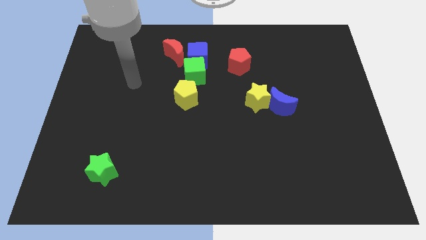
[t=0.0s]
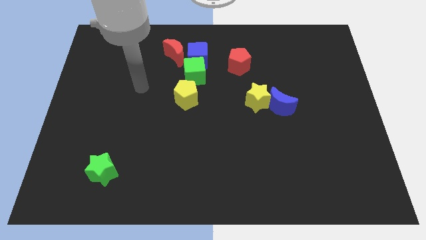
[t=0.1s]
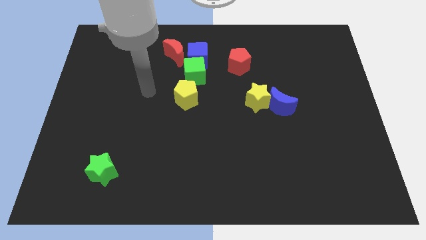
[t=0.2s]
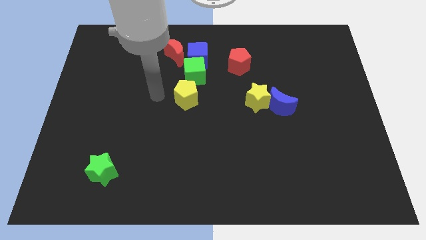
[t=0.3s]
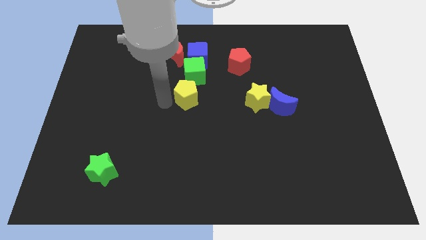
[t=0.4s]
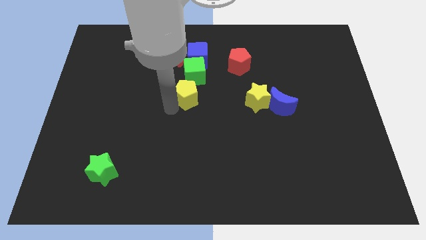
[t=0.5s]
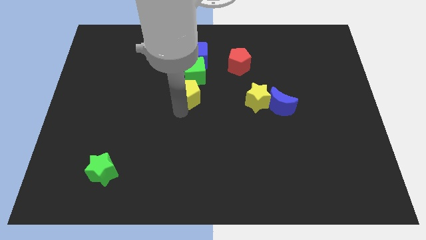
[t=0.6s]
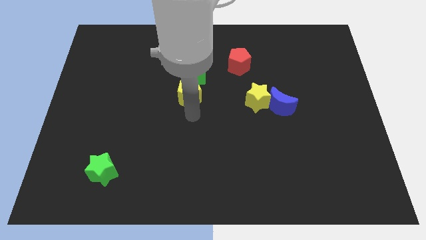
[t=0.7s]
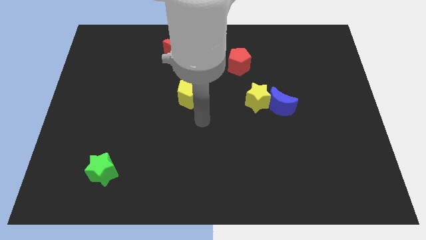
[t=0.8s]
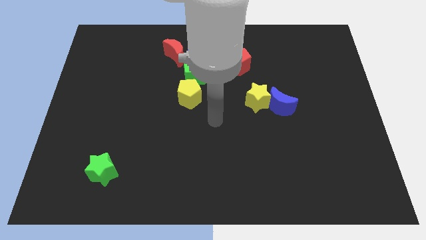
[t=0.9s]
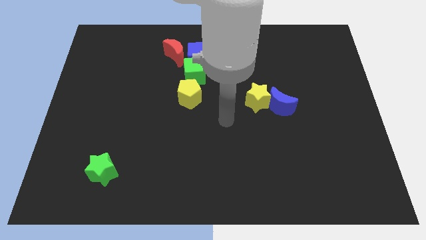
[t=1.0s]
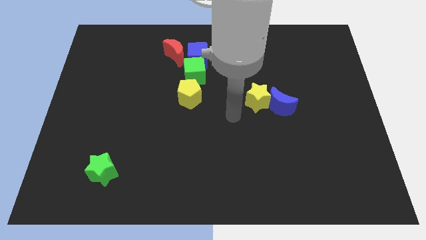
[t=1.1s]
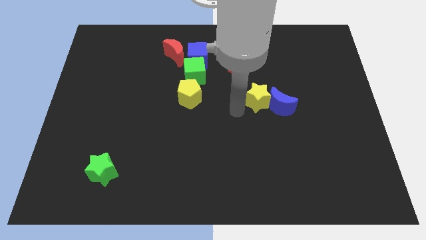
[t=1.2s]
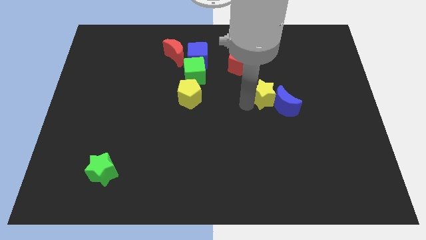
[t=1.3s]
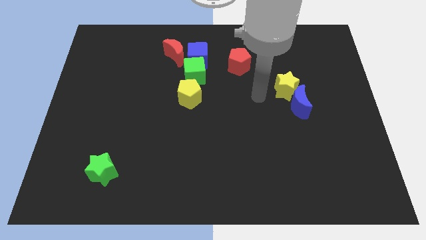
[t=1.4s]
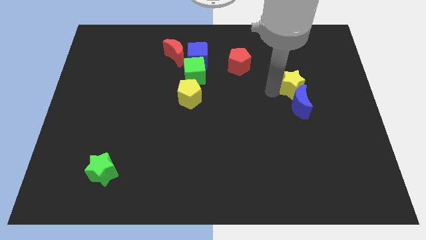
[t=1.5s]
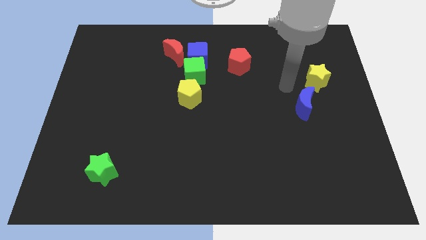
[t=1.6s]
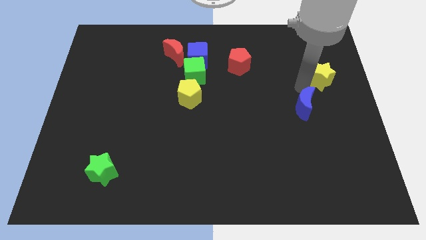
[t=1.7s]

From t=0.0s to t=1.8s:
move the blue moon away from the yellow star

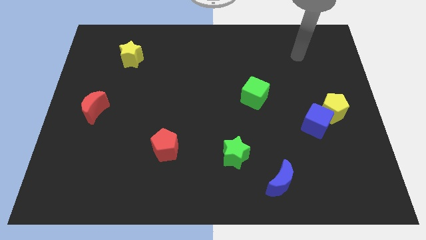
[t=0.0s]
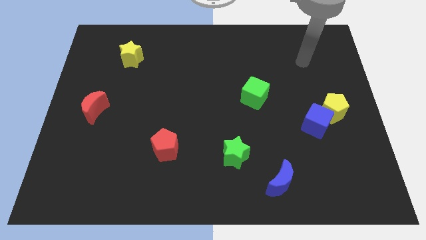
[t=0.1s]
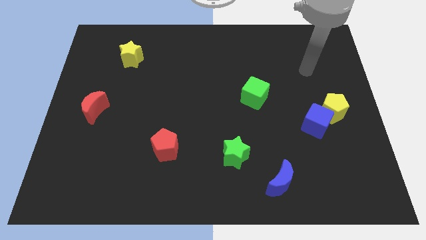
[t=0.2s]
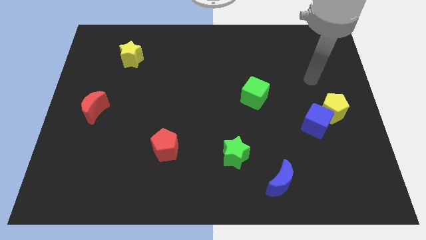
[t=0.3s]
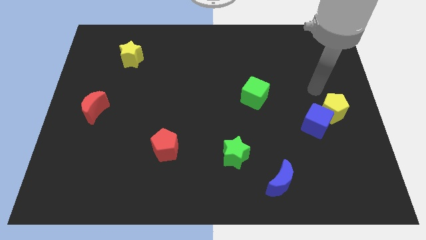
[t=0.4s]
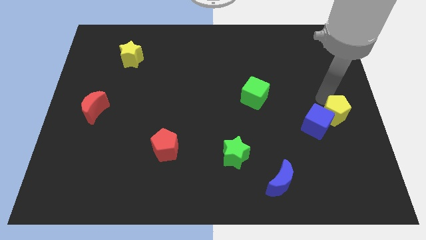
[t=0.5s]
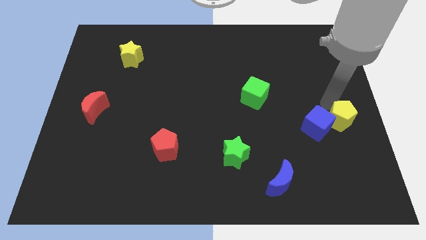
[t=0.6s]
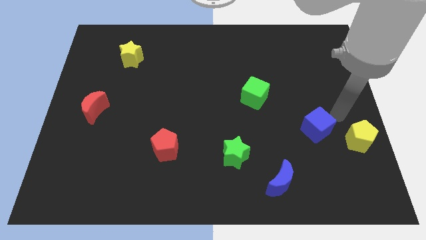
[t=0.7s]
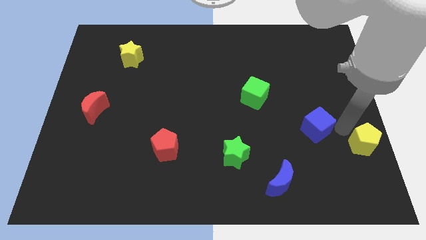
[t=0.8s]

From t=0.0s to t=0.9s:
separate the blue cube from the yellow pentagon

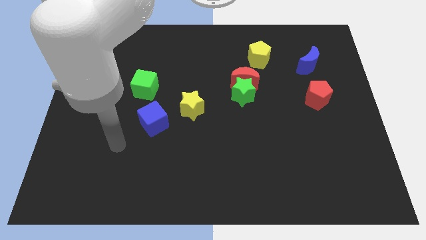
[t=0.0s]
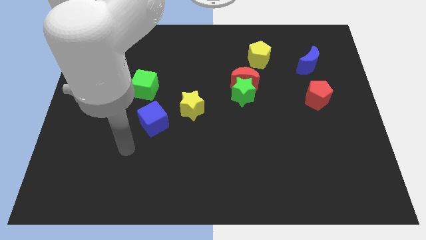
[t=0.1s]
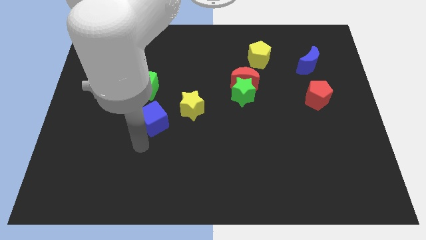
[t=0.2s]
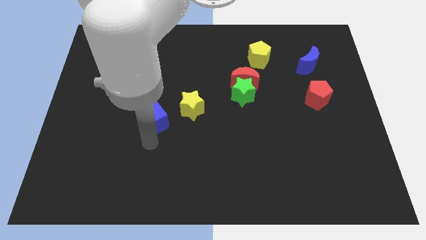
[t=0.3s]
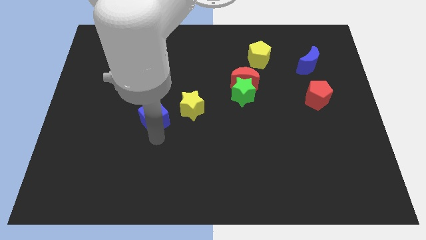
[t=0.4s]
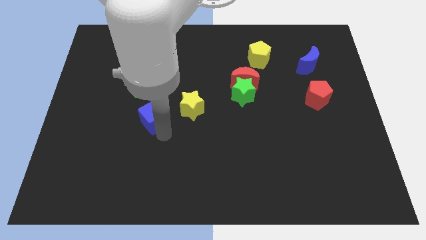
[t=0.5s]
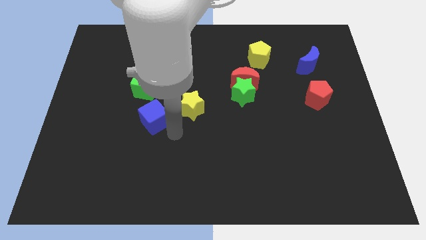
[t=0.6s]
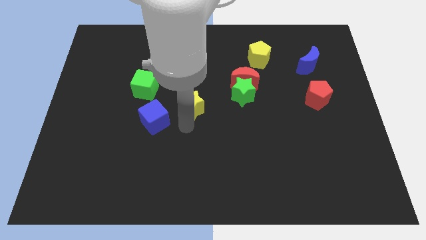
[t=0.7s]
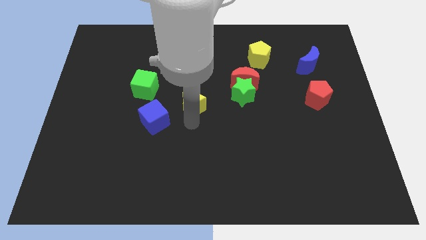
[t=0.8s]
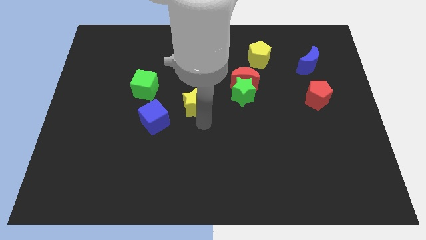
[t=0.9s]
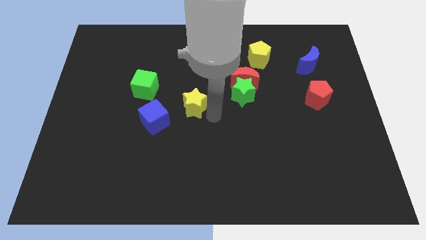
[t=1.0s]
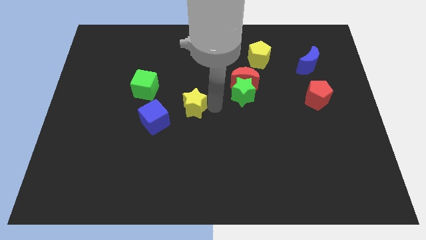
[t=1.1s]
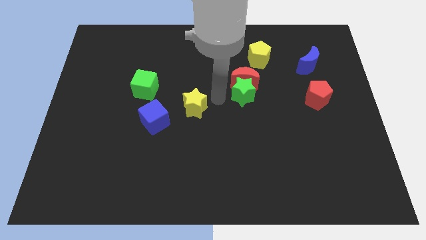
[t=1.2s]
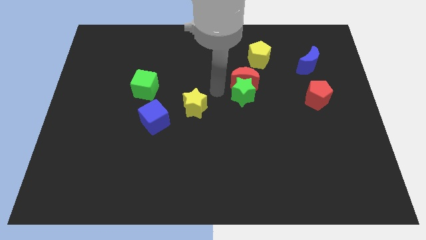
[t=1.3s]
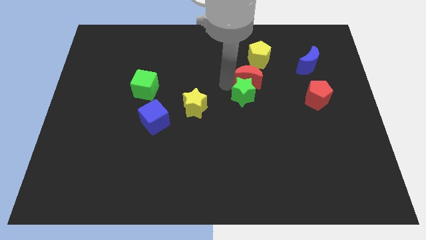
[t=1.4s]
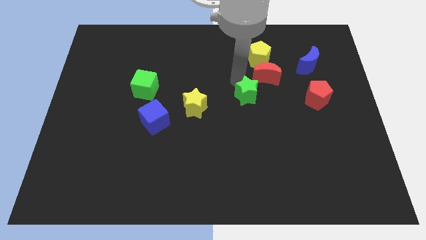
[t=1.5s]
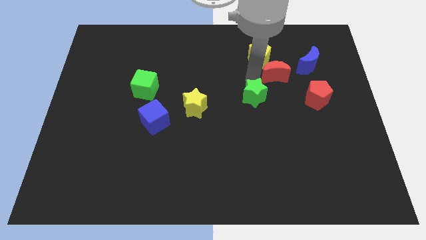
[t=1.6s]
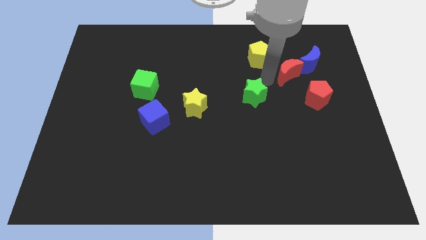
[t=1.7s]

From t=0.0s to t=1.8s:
pull the green star apart from the red moon

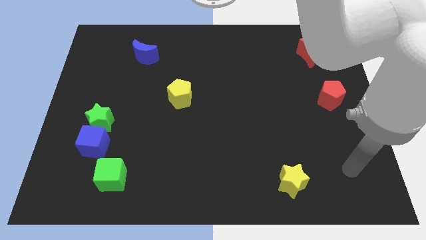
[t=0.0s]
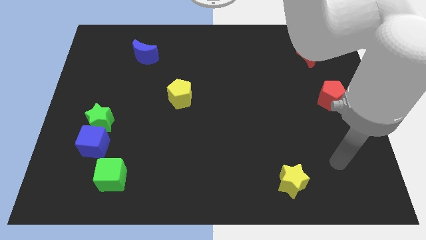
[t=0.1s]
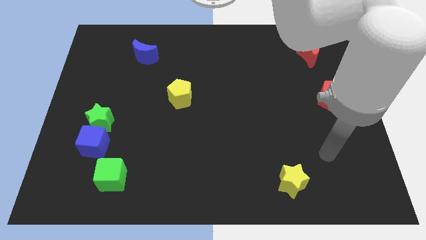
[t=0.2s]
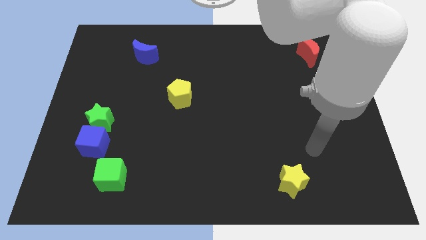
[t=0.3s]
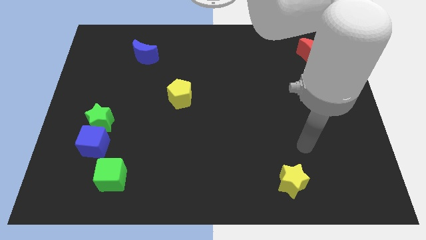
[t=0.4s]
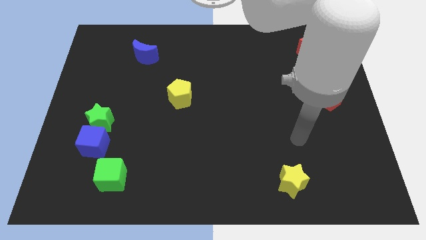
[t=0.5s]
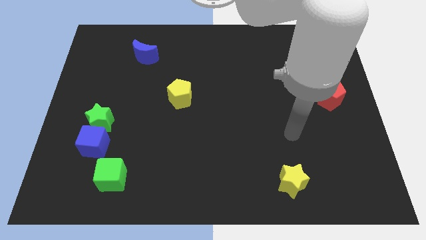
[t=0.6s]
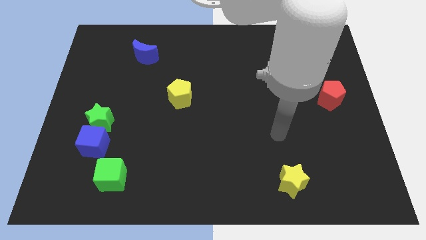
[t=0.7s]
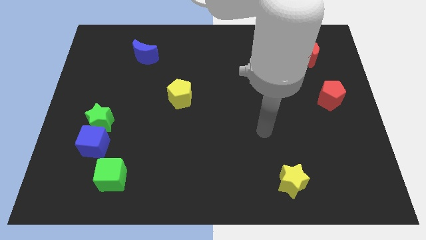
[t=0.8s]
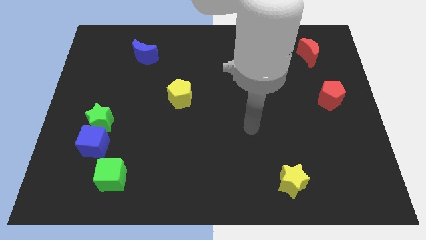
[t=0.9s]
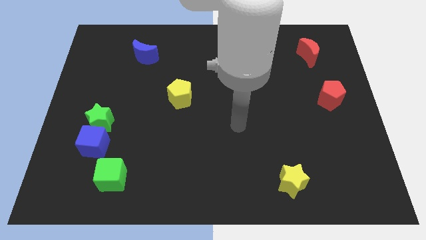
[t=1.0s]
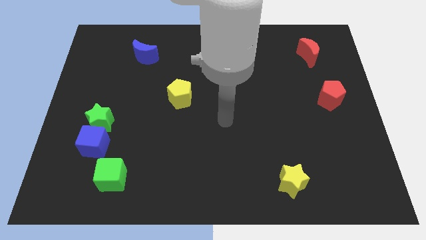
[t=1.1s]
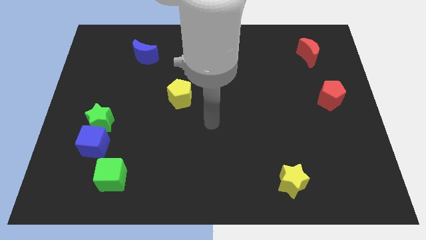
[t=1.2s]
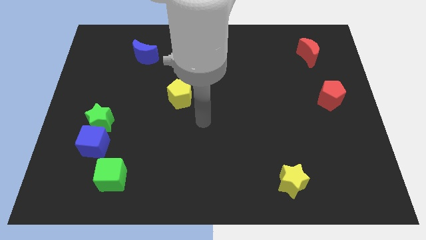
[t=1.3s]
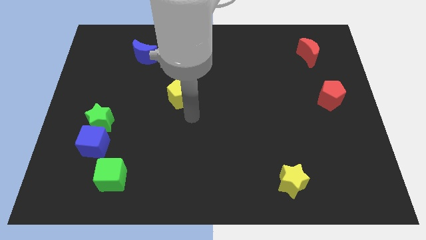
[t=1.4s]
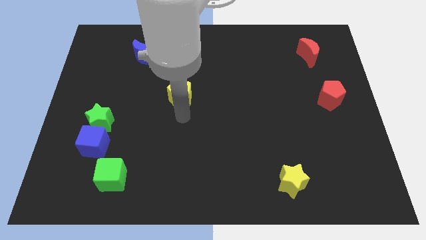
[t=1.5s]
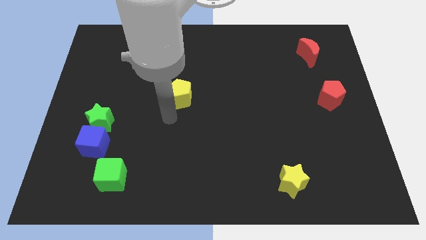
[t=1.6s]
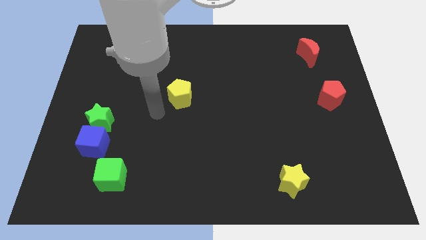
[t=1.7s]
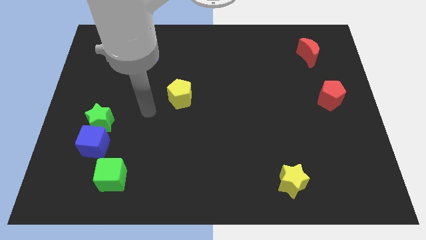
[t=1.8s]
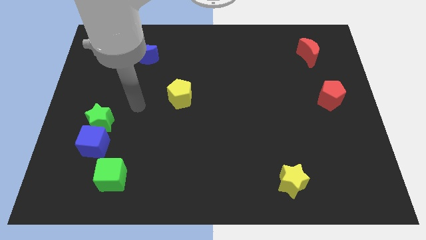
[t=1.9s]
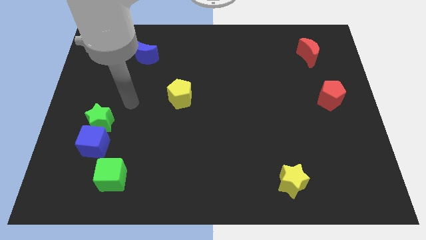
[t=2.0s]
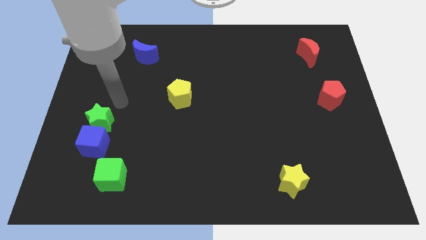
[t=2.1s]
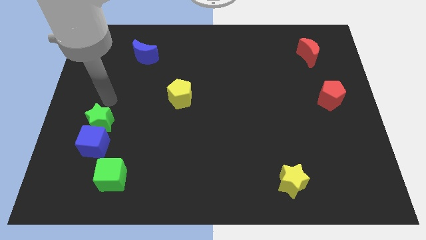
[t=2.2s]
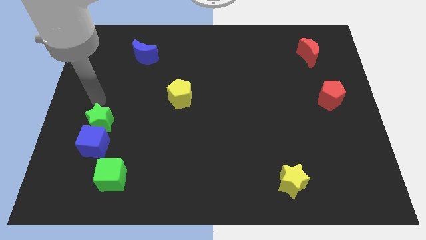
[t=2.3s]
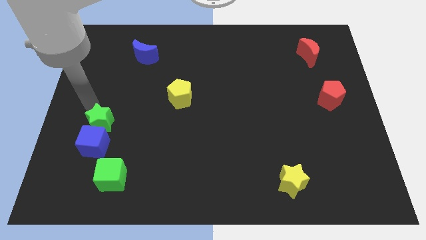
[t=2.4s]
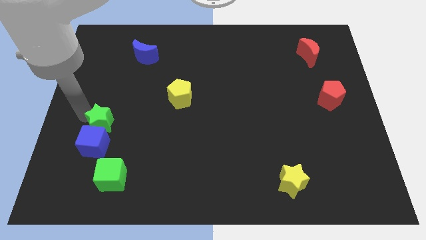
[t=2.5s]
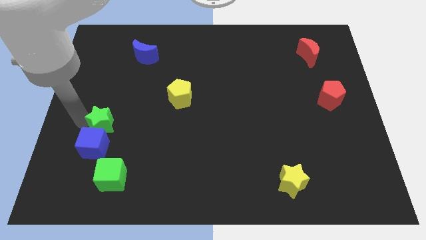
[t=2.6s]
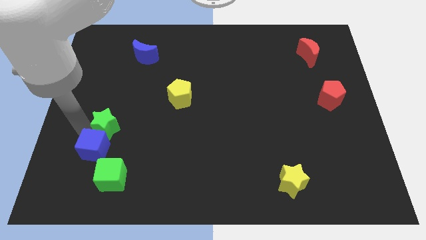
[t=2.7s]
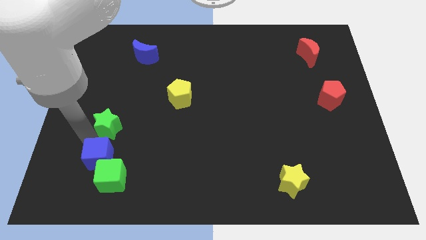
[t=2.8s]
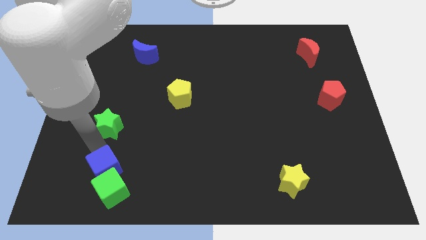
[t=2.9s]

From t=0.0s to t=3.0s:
move the green star away from the blue cube

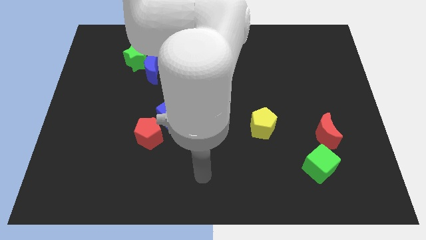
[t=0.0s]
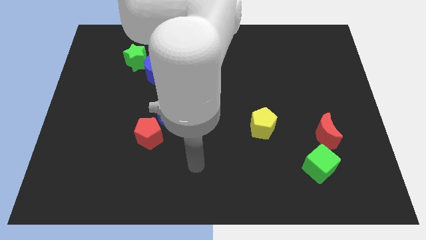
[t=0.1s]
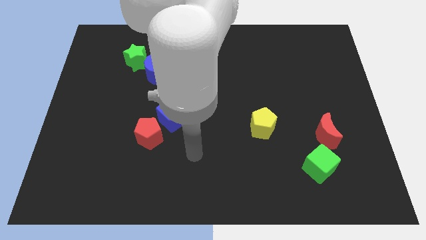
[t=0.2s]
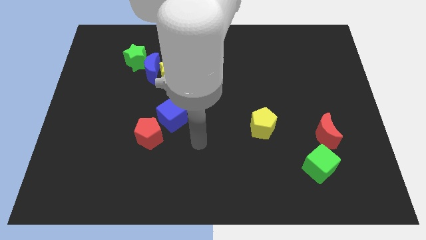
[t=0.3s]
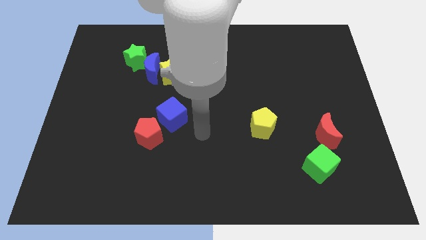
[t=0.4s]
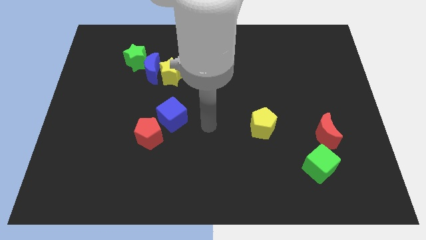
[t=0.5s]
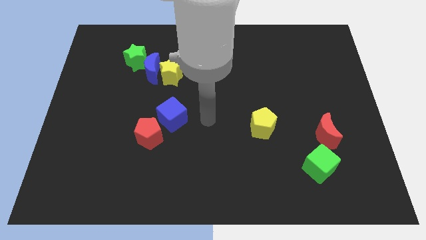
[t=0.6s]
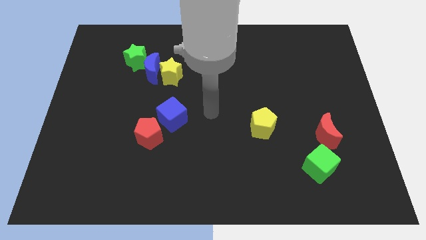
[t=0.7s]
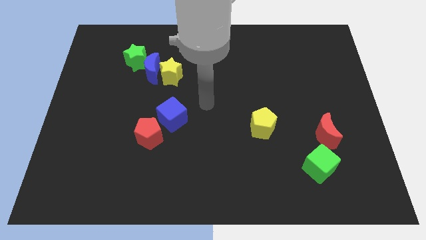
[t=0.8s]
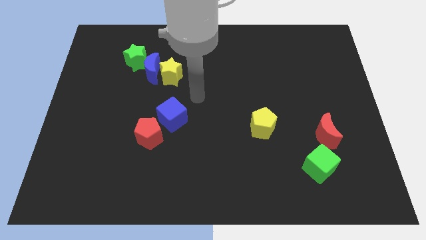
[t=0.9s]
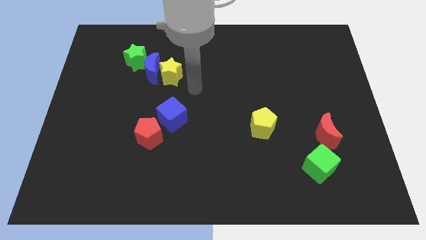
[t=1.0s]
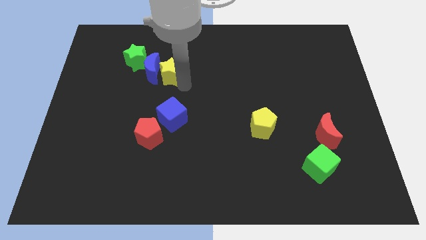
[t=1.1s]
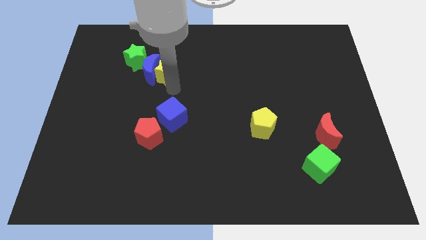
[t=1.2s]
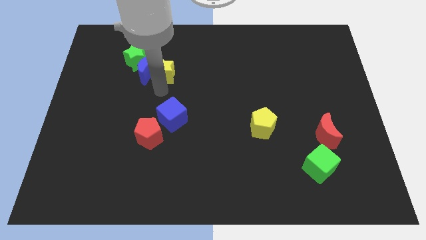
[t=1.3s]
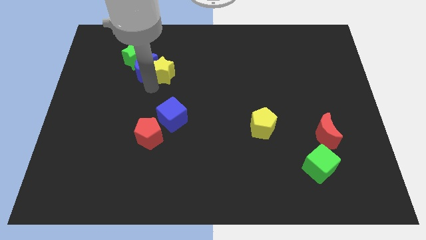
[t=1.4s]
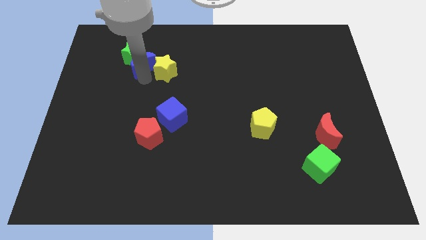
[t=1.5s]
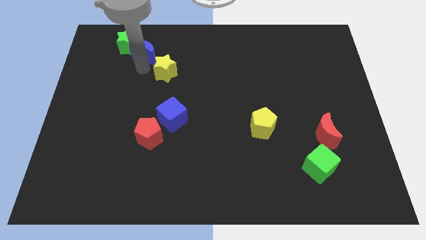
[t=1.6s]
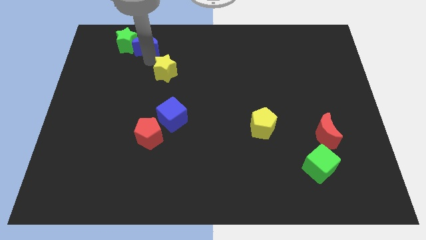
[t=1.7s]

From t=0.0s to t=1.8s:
move the yellow star away from the blue moon
